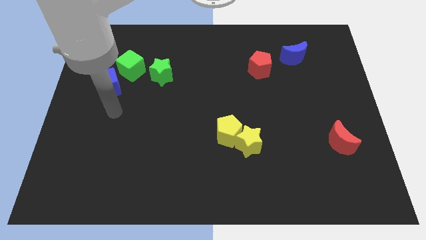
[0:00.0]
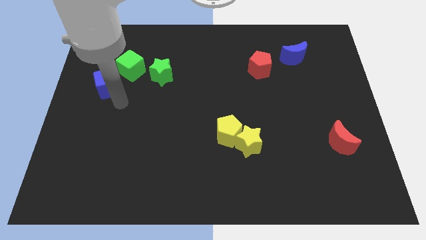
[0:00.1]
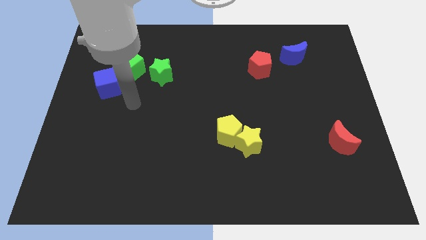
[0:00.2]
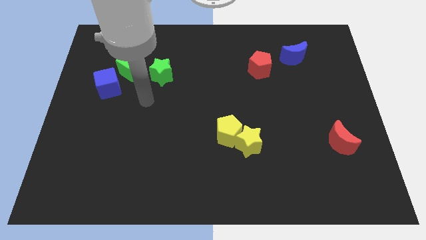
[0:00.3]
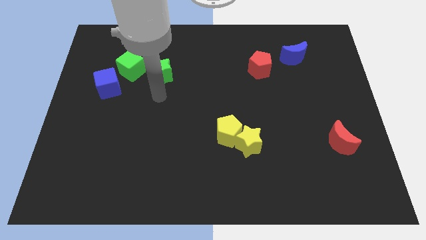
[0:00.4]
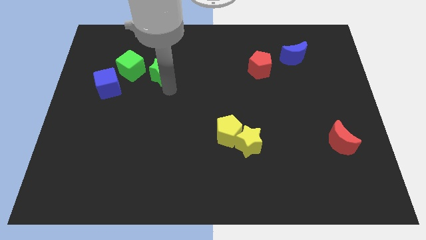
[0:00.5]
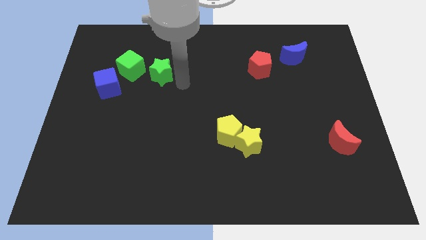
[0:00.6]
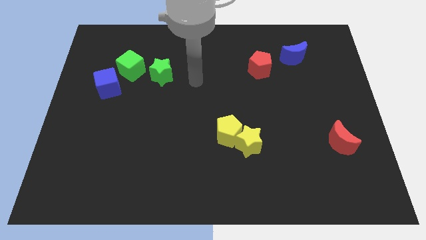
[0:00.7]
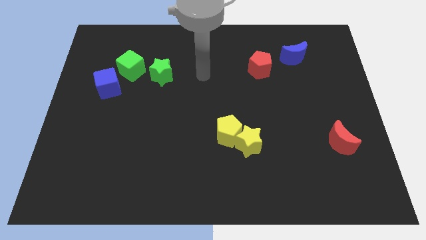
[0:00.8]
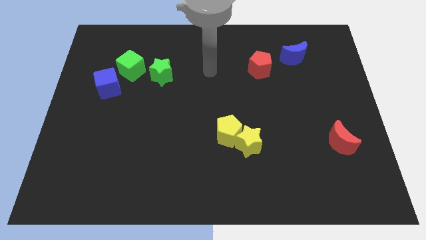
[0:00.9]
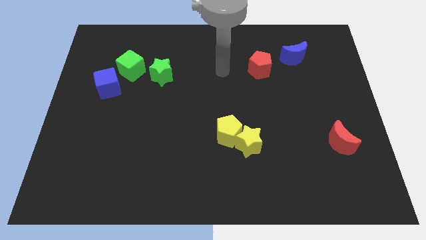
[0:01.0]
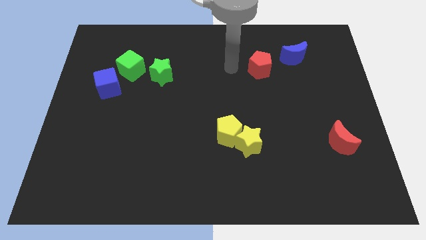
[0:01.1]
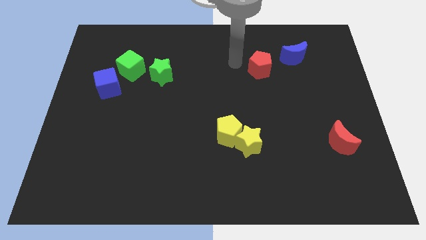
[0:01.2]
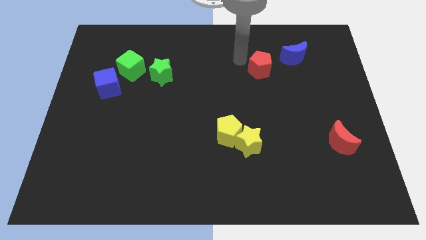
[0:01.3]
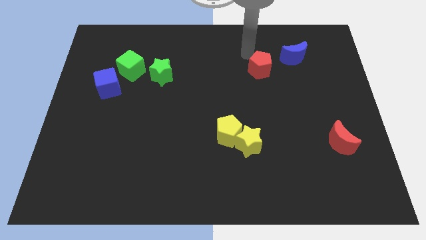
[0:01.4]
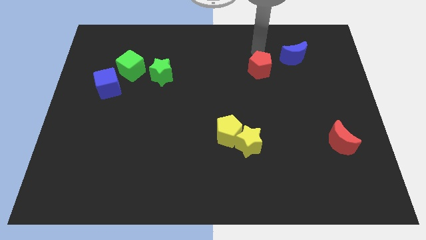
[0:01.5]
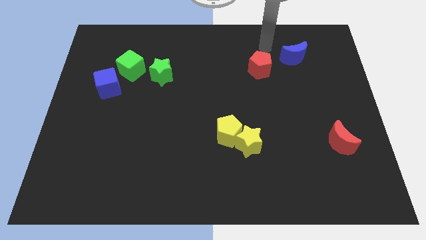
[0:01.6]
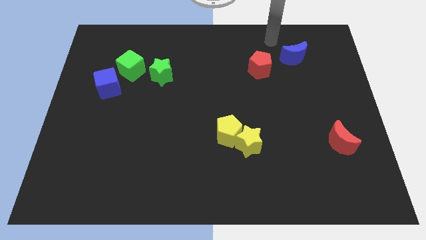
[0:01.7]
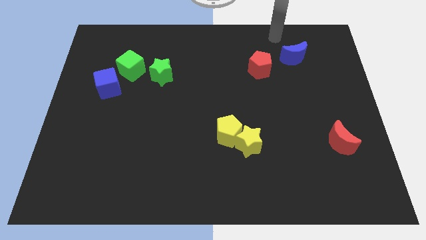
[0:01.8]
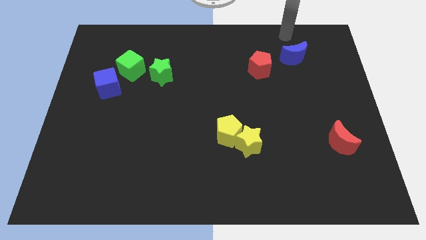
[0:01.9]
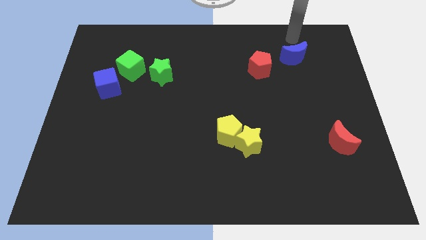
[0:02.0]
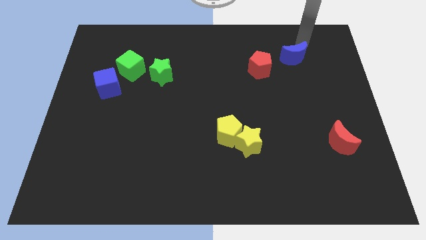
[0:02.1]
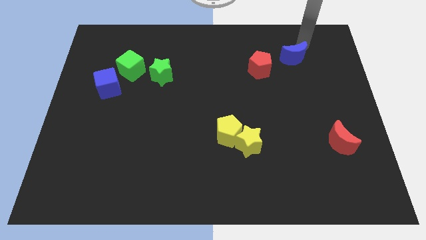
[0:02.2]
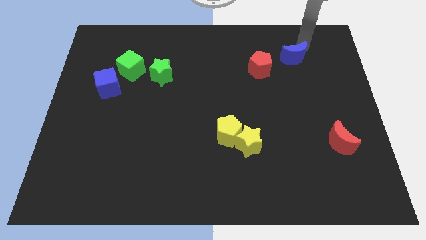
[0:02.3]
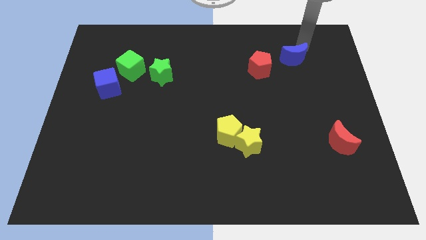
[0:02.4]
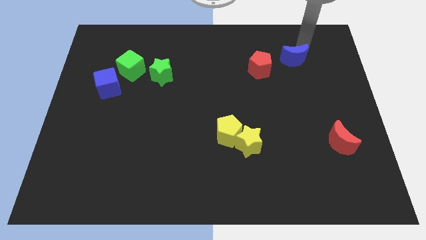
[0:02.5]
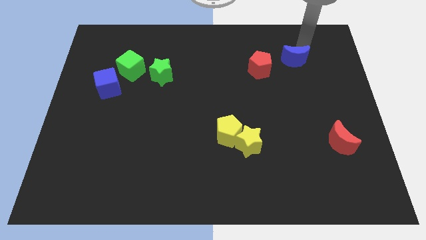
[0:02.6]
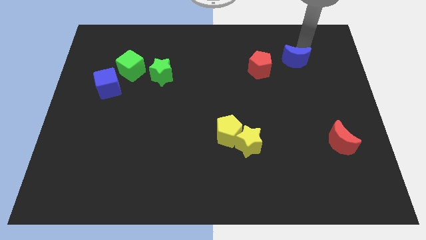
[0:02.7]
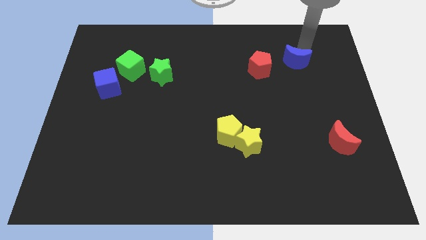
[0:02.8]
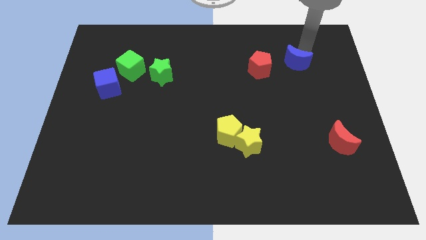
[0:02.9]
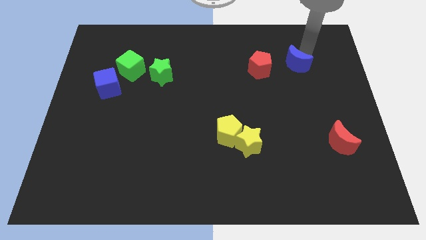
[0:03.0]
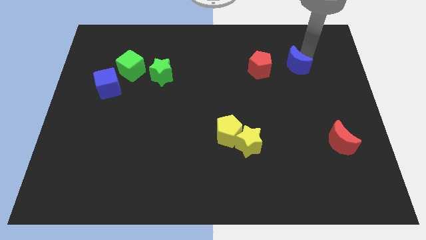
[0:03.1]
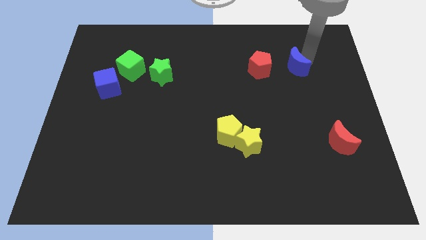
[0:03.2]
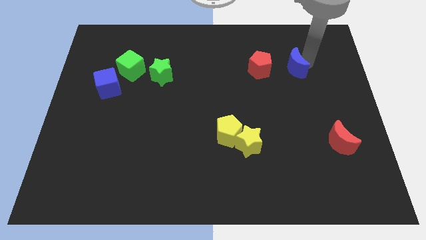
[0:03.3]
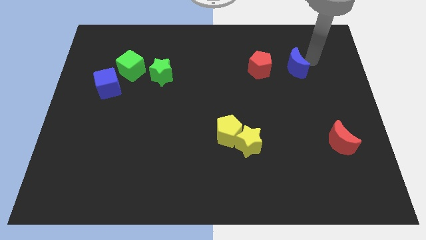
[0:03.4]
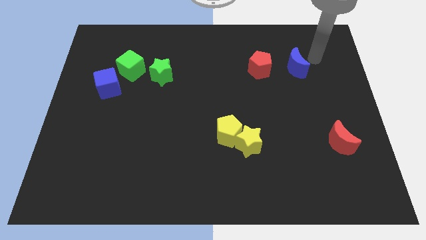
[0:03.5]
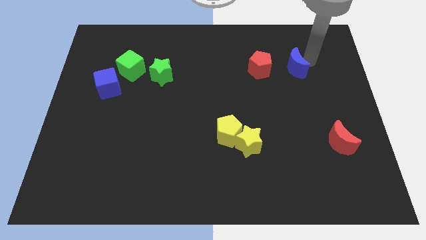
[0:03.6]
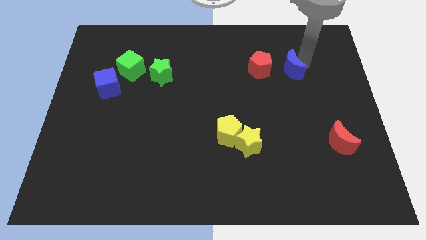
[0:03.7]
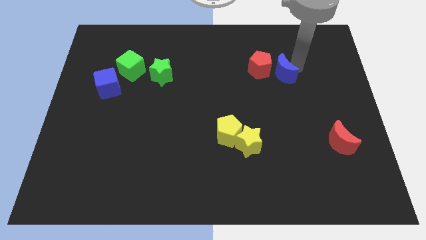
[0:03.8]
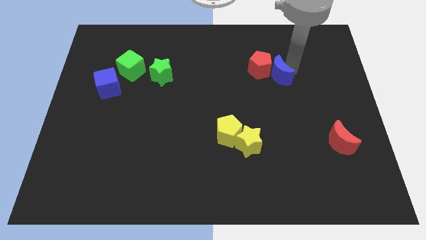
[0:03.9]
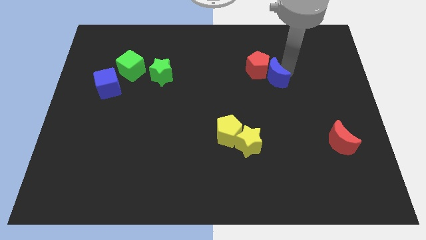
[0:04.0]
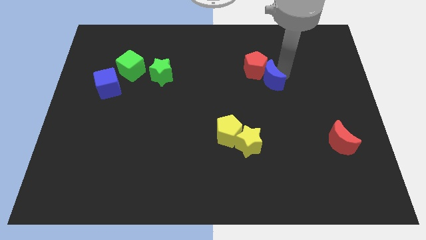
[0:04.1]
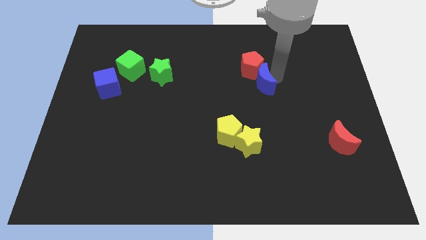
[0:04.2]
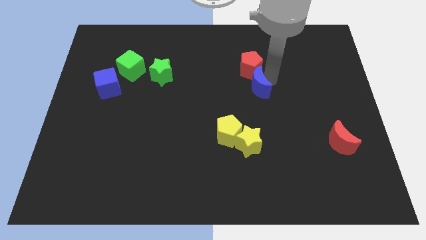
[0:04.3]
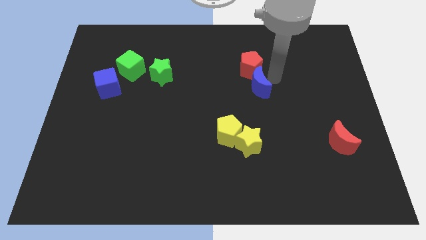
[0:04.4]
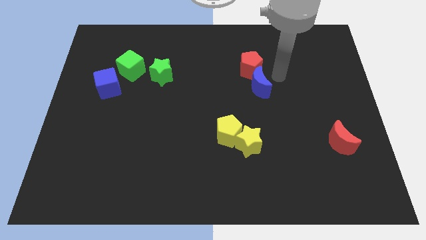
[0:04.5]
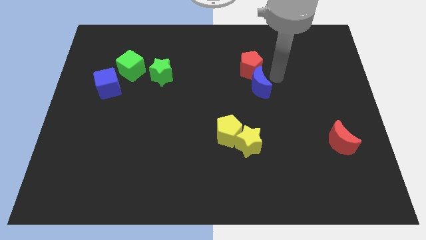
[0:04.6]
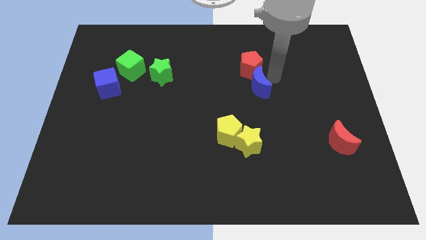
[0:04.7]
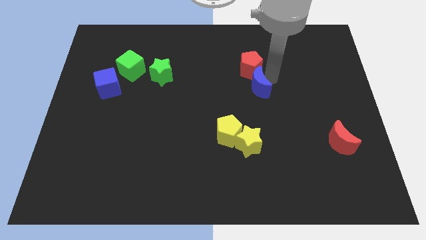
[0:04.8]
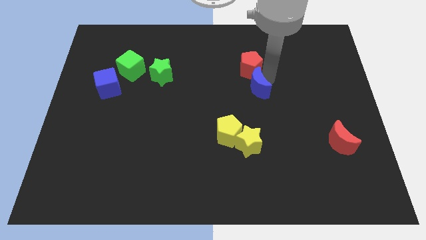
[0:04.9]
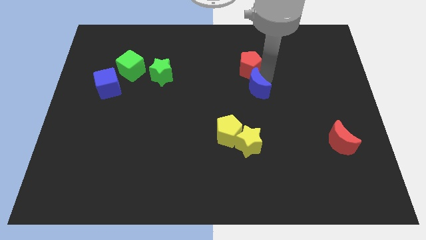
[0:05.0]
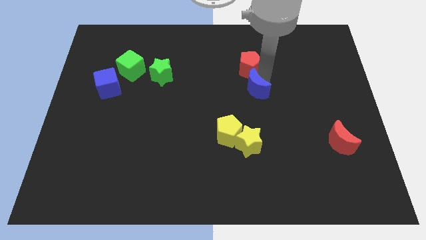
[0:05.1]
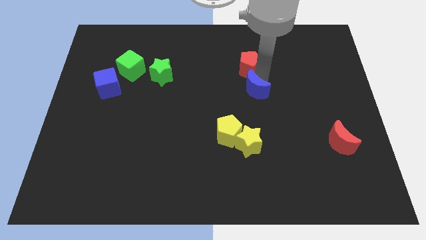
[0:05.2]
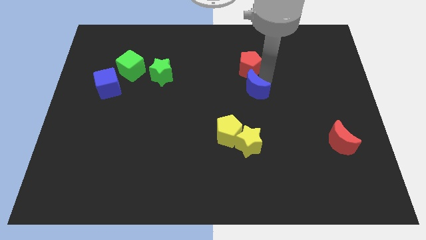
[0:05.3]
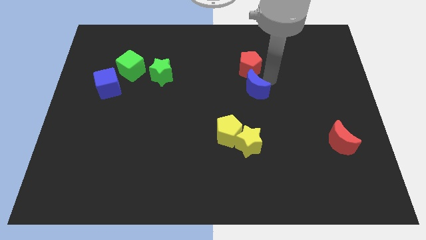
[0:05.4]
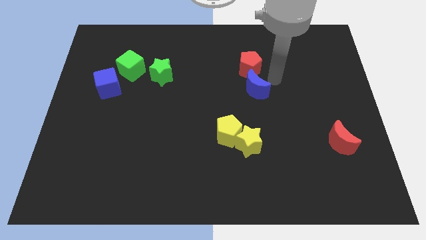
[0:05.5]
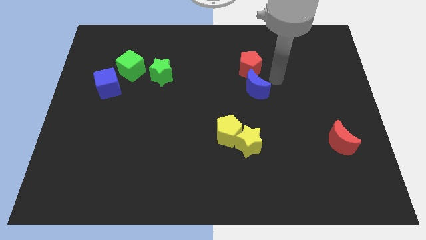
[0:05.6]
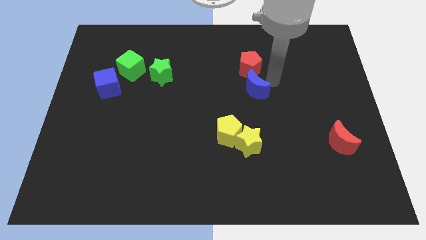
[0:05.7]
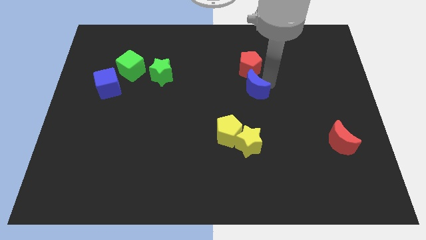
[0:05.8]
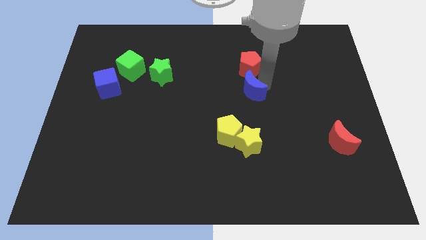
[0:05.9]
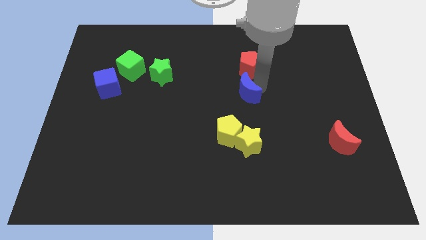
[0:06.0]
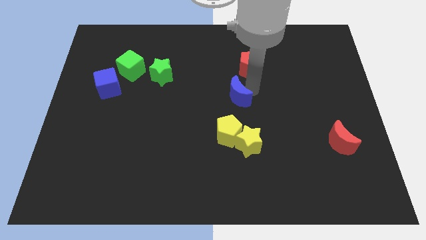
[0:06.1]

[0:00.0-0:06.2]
push the blue moon downwards and to the left diagonally

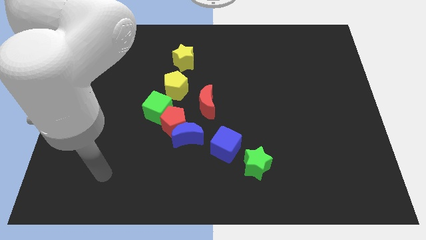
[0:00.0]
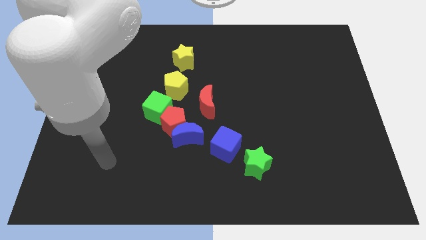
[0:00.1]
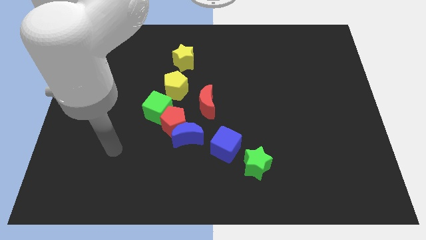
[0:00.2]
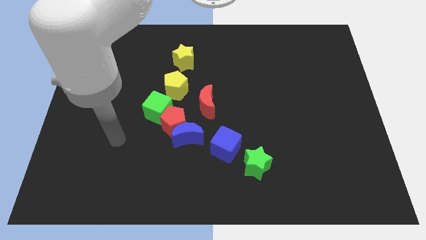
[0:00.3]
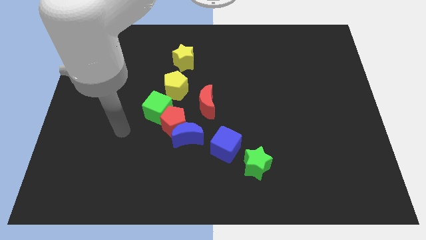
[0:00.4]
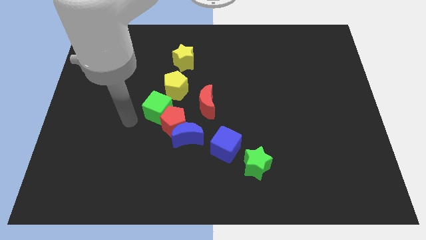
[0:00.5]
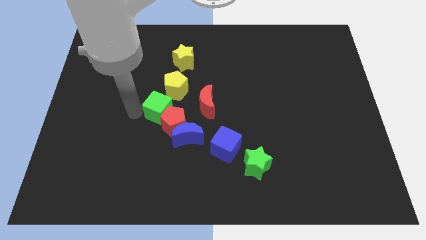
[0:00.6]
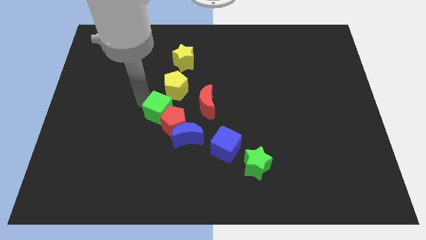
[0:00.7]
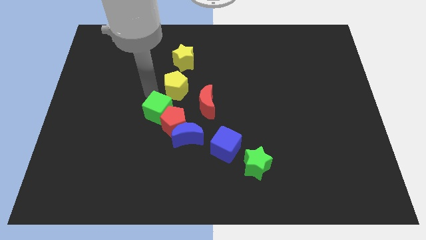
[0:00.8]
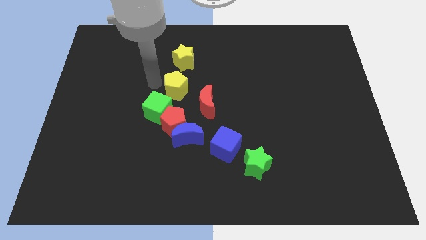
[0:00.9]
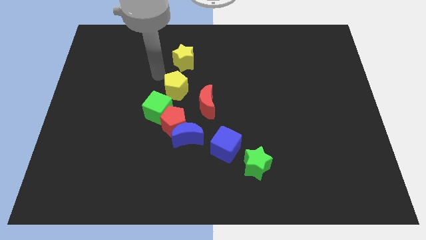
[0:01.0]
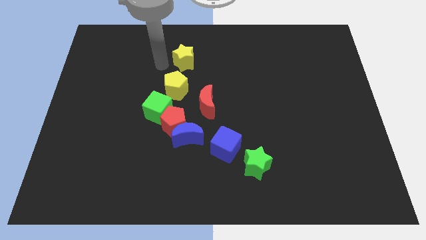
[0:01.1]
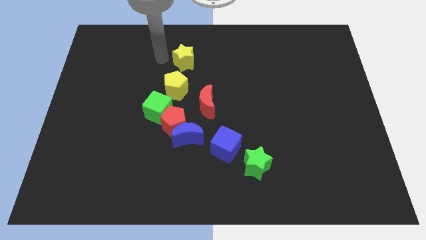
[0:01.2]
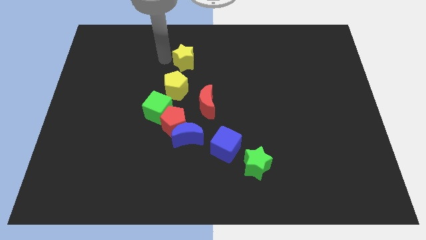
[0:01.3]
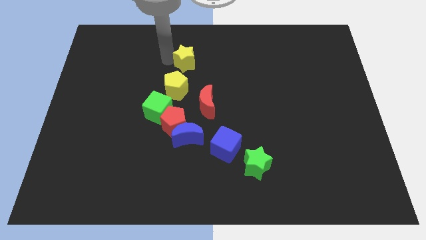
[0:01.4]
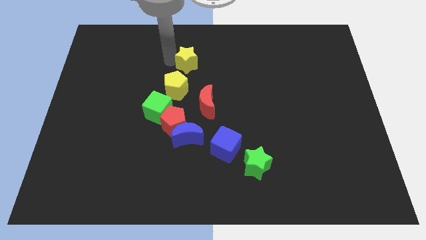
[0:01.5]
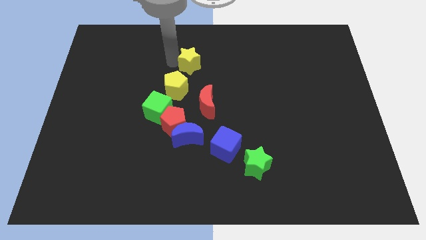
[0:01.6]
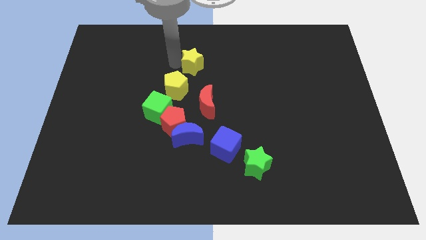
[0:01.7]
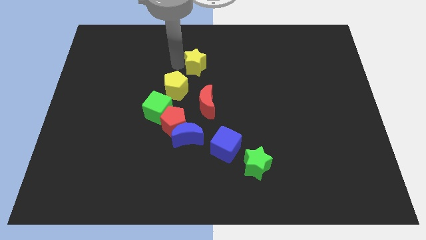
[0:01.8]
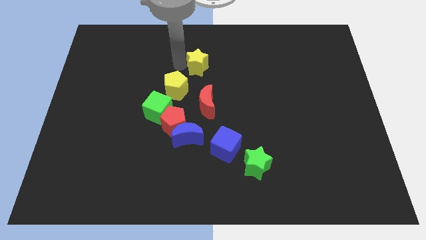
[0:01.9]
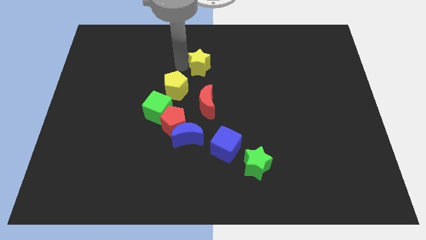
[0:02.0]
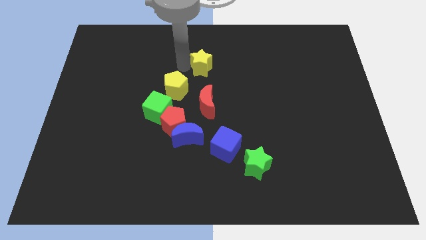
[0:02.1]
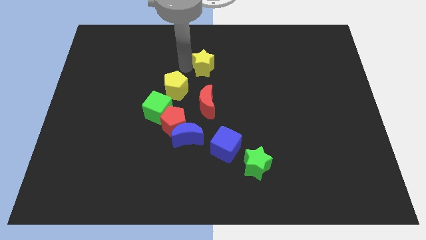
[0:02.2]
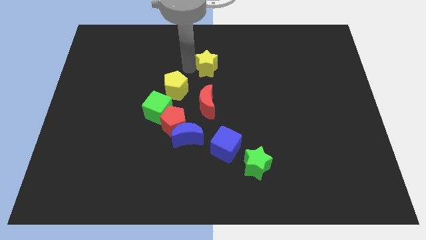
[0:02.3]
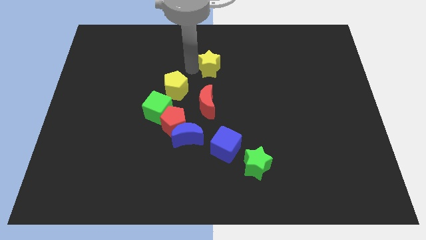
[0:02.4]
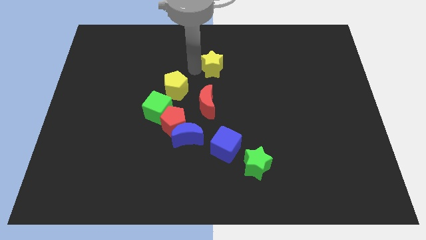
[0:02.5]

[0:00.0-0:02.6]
slide the yellow star right slightly
